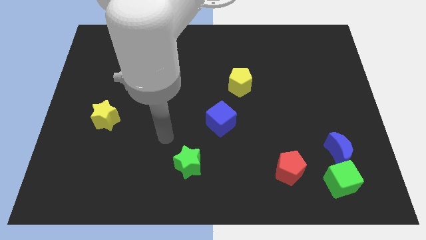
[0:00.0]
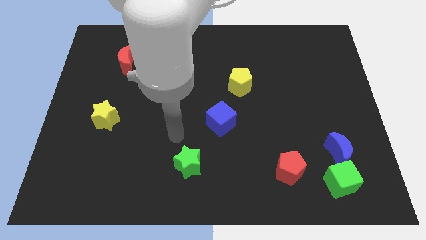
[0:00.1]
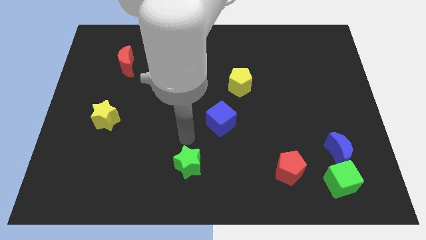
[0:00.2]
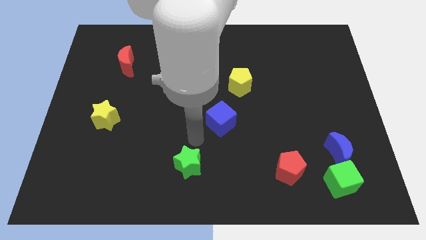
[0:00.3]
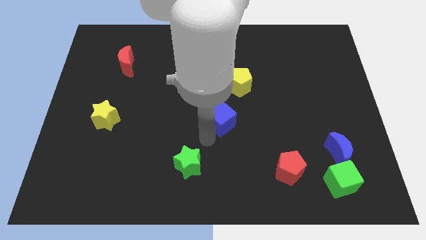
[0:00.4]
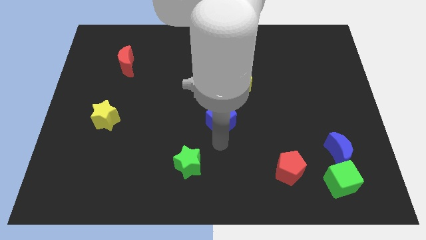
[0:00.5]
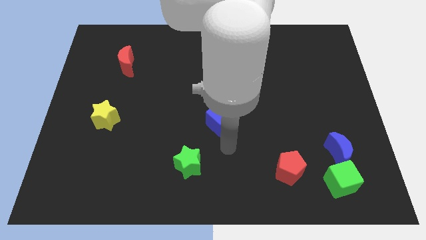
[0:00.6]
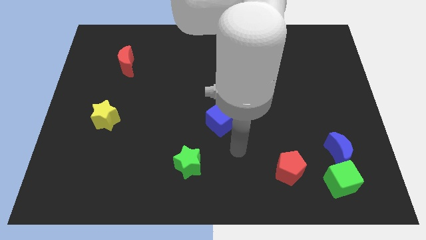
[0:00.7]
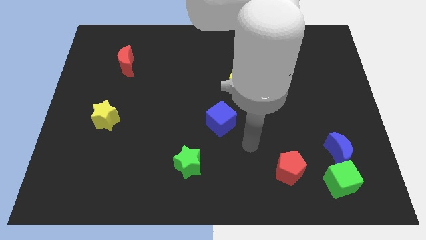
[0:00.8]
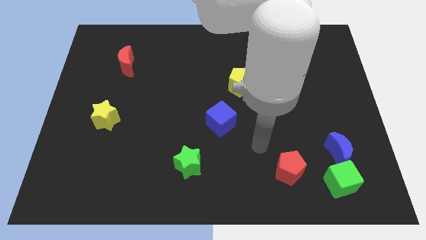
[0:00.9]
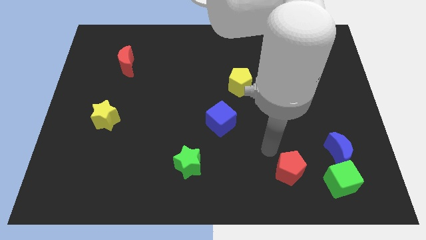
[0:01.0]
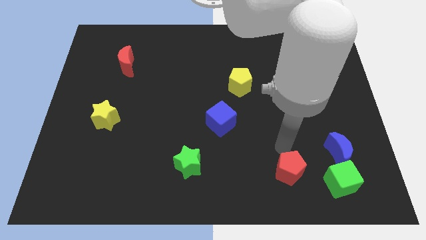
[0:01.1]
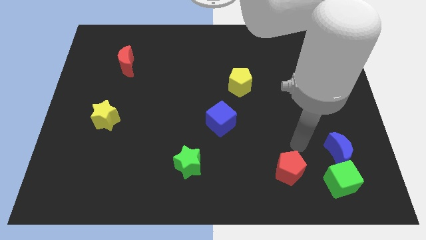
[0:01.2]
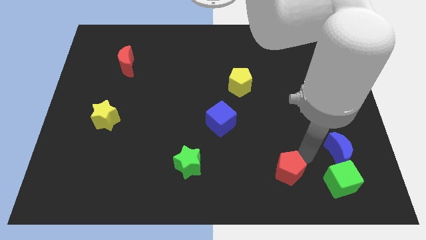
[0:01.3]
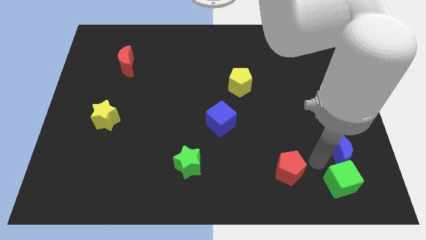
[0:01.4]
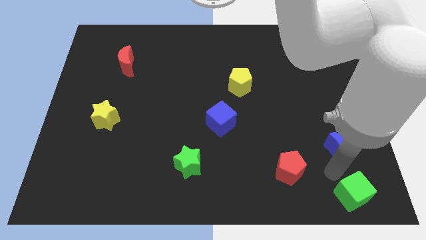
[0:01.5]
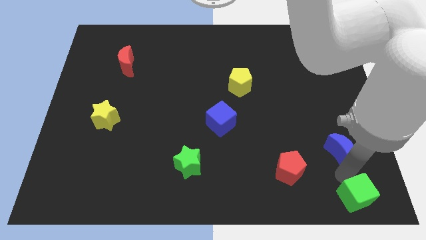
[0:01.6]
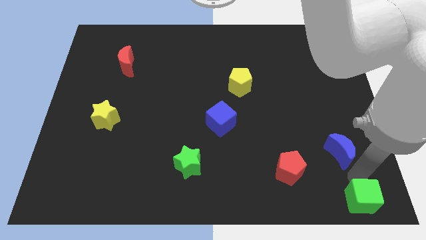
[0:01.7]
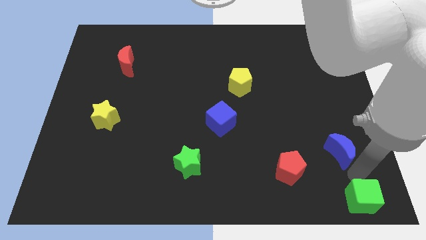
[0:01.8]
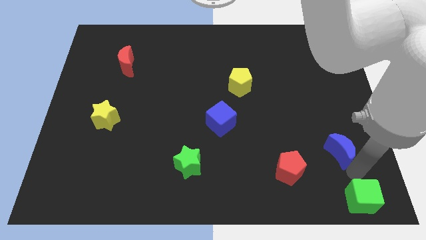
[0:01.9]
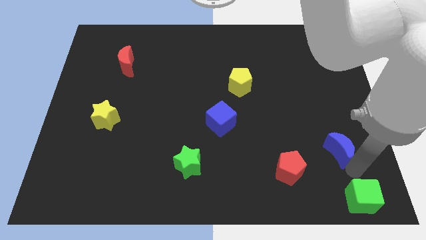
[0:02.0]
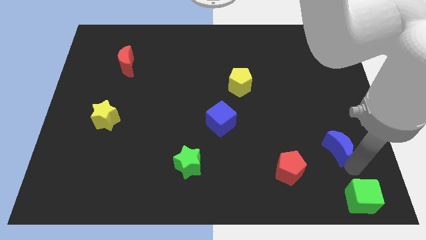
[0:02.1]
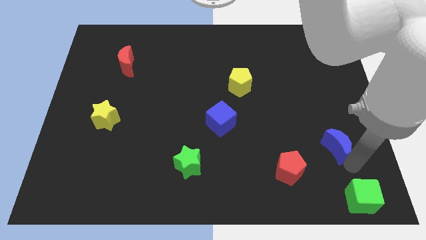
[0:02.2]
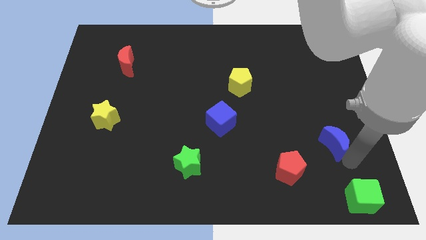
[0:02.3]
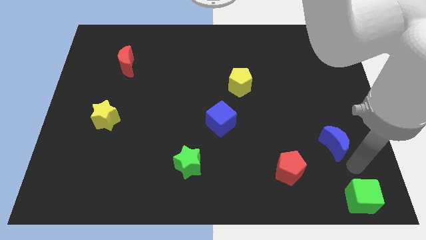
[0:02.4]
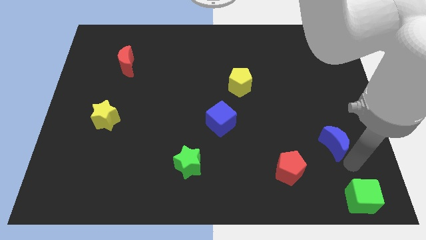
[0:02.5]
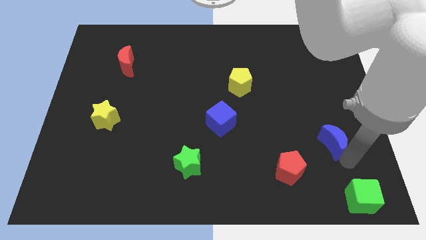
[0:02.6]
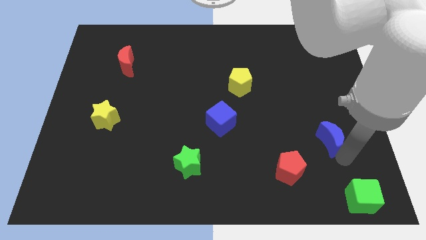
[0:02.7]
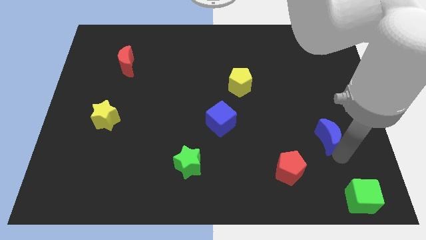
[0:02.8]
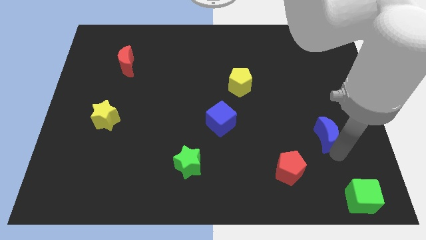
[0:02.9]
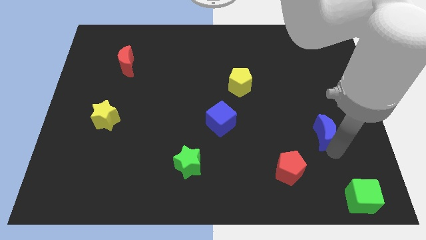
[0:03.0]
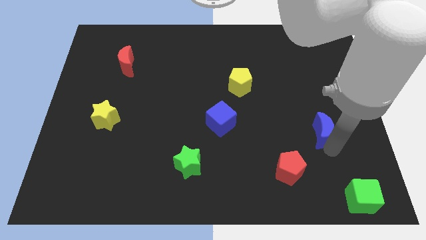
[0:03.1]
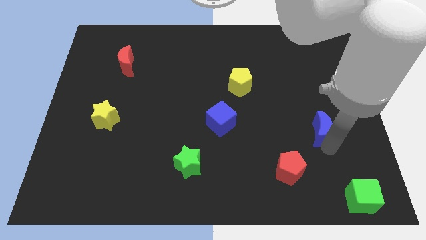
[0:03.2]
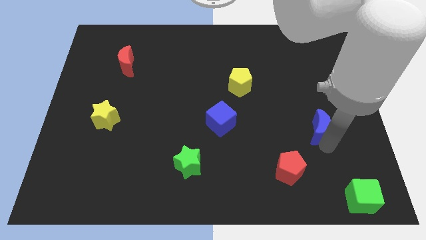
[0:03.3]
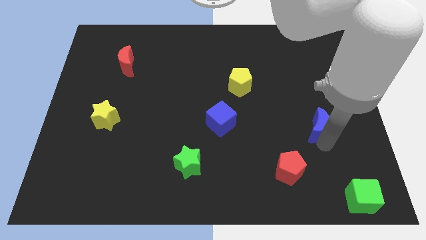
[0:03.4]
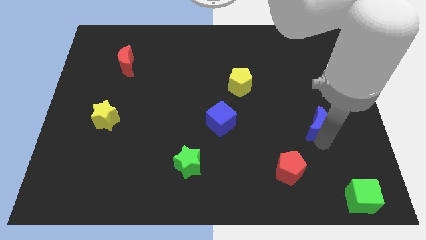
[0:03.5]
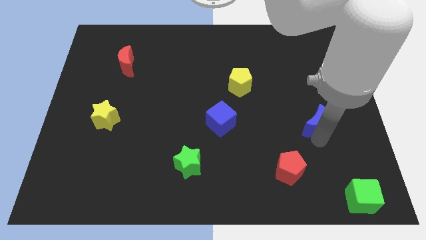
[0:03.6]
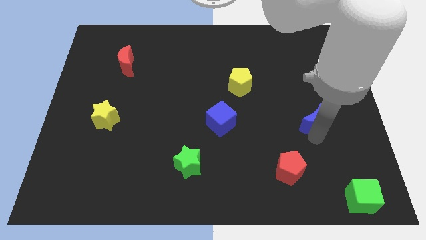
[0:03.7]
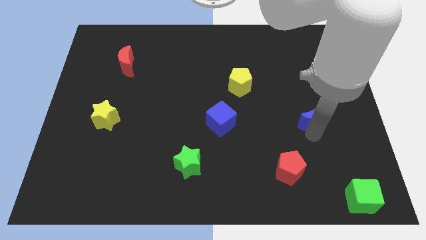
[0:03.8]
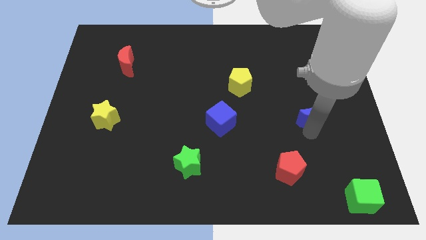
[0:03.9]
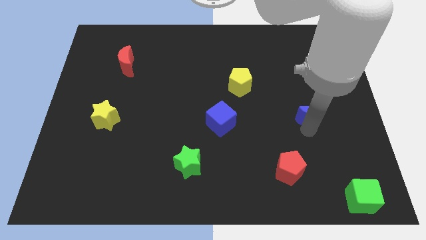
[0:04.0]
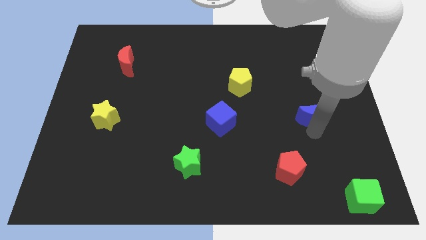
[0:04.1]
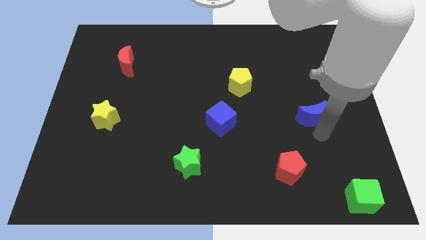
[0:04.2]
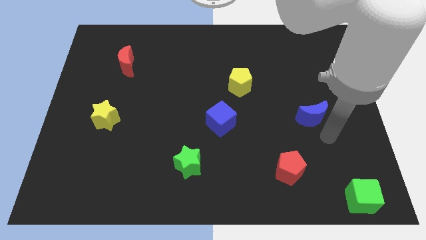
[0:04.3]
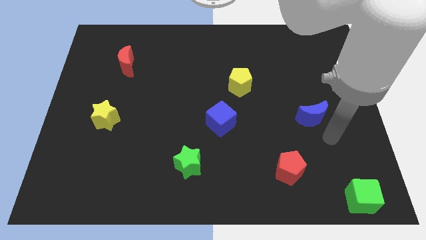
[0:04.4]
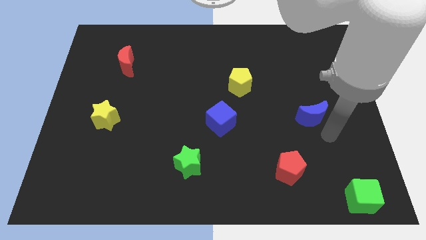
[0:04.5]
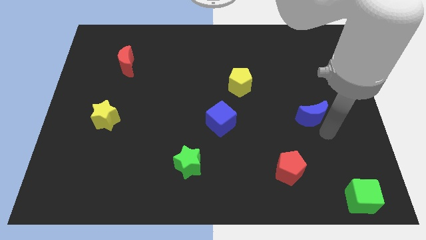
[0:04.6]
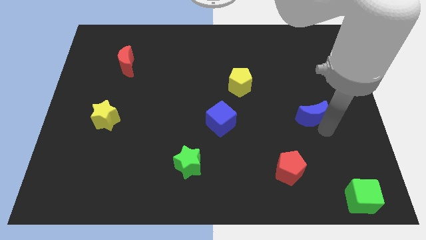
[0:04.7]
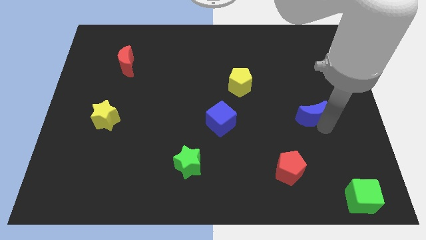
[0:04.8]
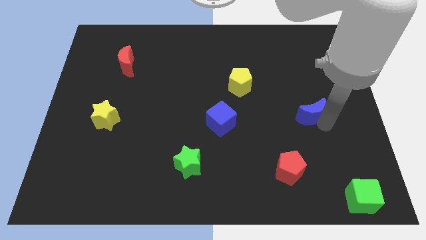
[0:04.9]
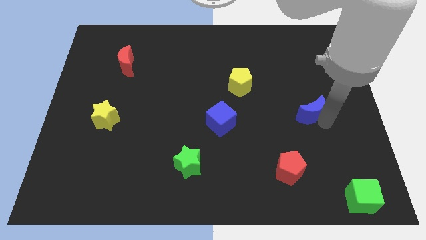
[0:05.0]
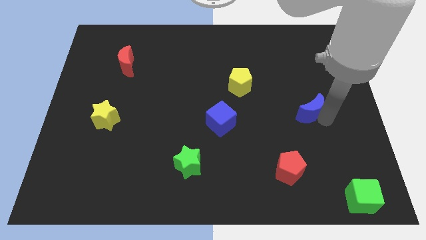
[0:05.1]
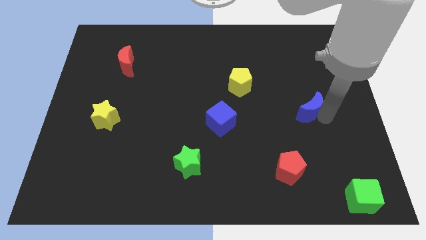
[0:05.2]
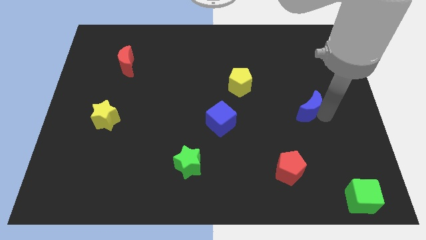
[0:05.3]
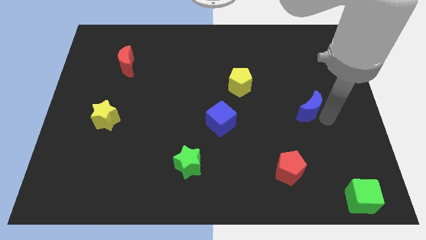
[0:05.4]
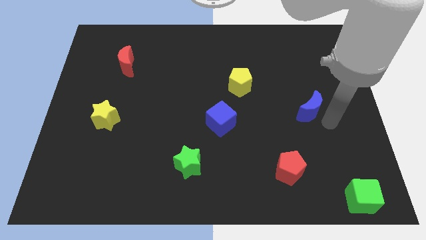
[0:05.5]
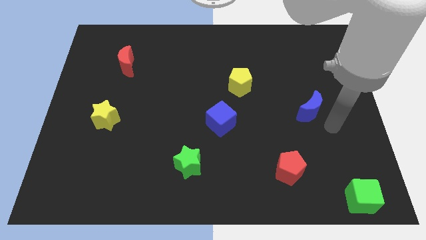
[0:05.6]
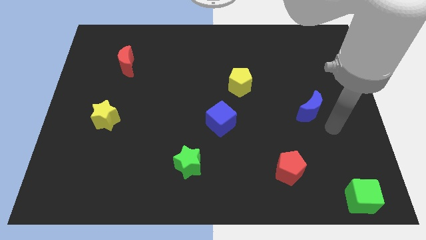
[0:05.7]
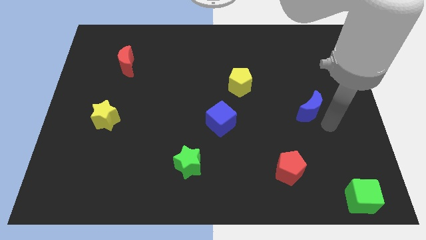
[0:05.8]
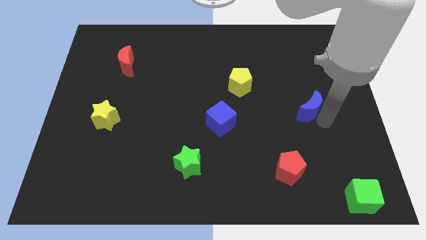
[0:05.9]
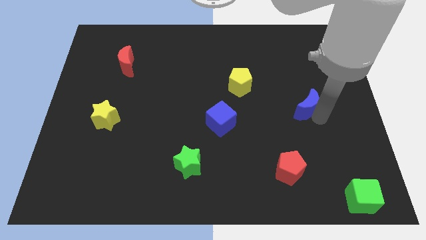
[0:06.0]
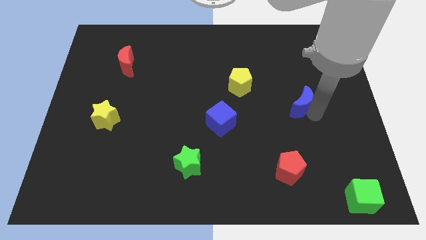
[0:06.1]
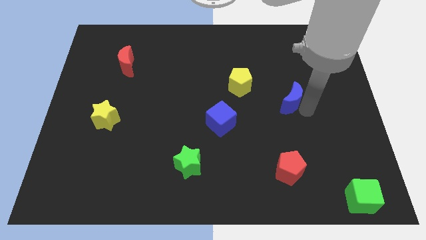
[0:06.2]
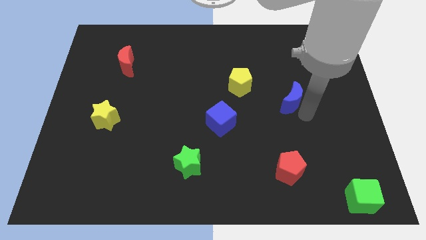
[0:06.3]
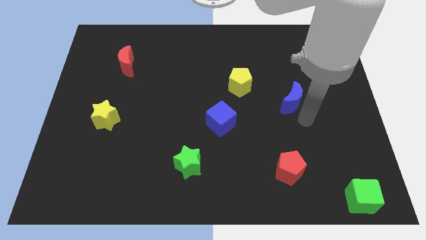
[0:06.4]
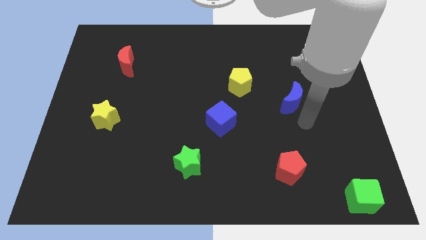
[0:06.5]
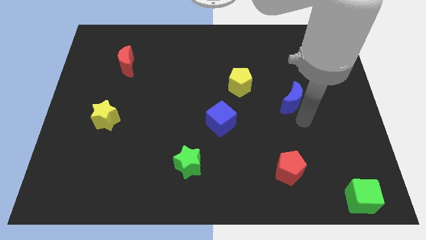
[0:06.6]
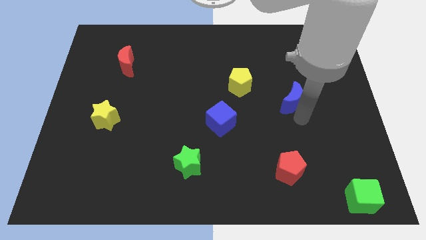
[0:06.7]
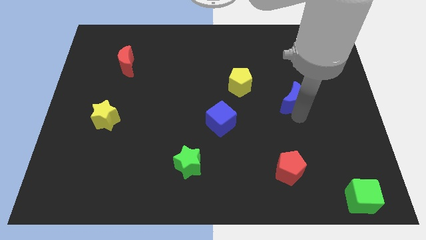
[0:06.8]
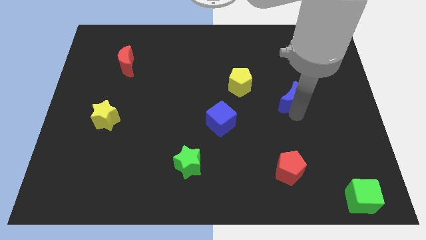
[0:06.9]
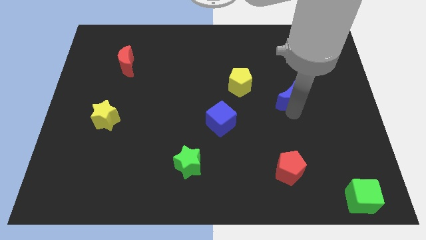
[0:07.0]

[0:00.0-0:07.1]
push the blue moon just right of the yellow pentagon
